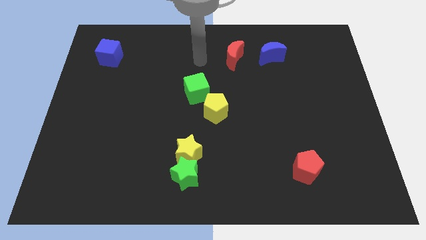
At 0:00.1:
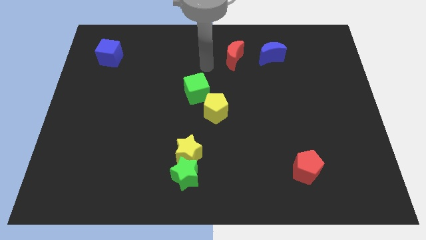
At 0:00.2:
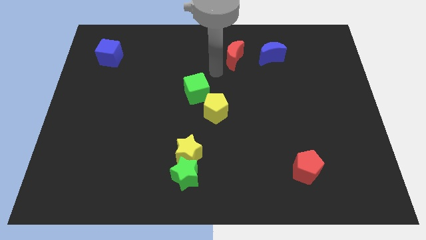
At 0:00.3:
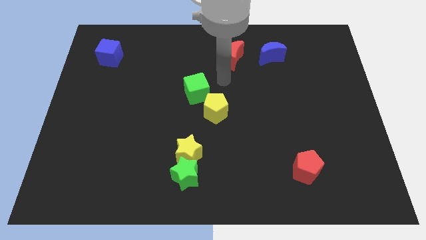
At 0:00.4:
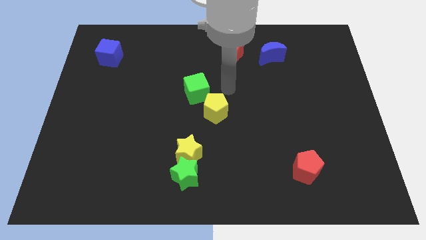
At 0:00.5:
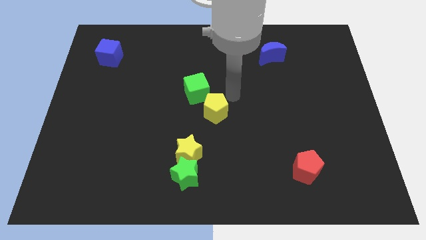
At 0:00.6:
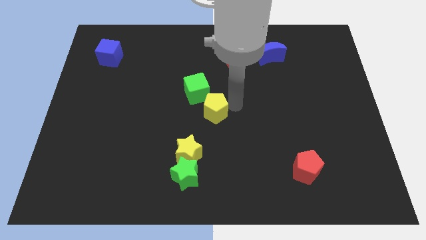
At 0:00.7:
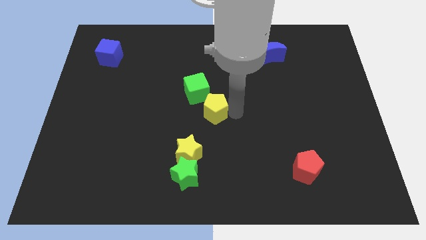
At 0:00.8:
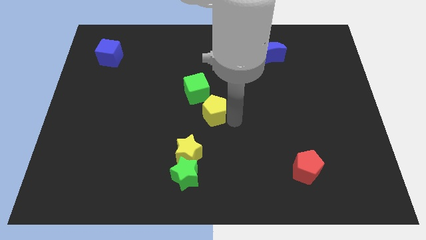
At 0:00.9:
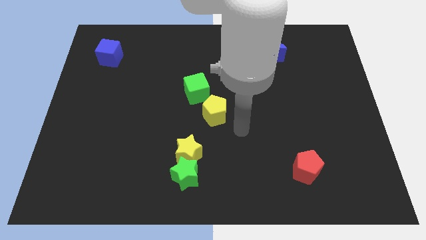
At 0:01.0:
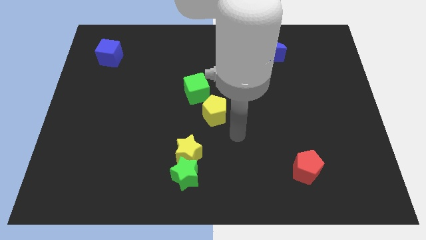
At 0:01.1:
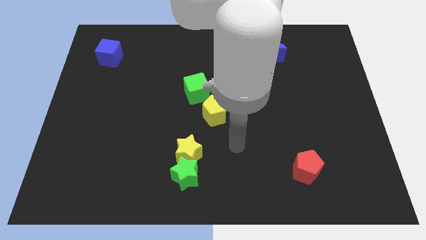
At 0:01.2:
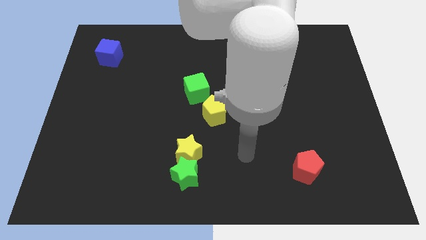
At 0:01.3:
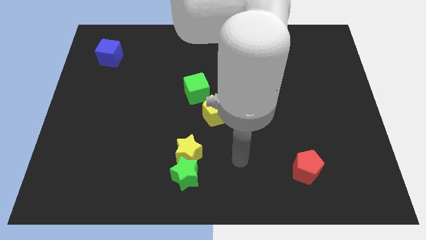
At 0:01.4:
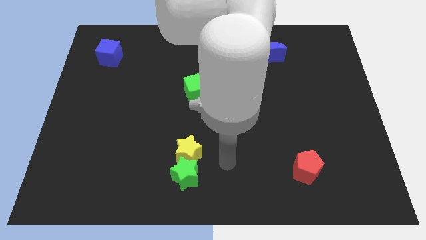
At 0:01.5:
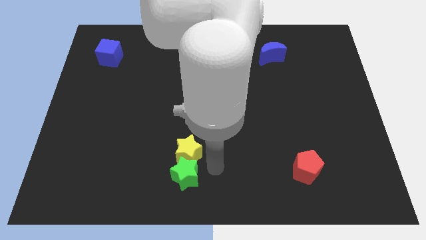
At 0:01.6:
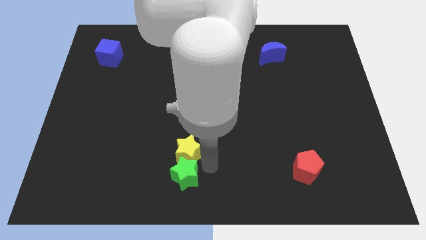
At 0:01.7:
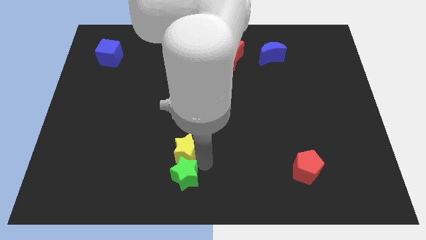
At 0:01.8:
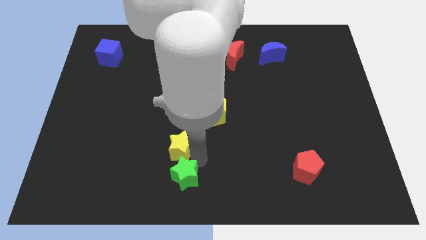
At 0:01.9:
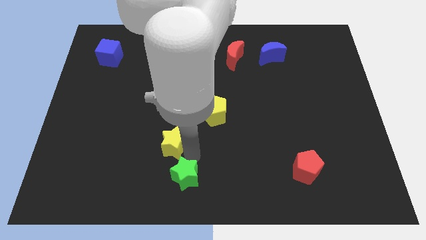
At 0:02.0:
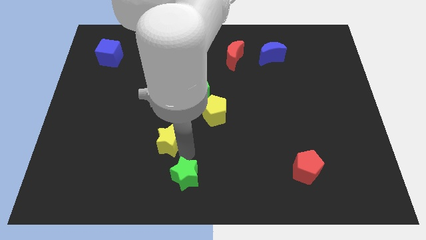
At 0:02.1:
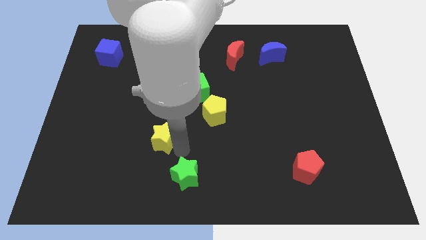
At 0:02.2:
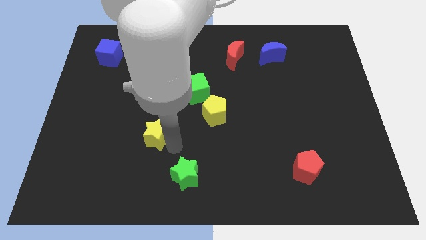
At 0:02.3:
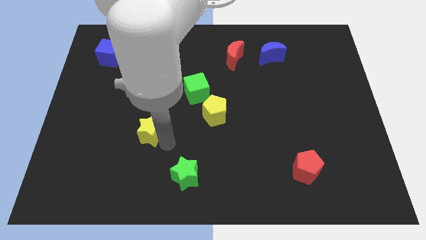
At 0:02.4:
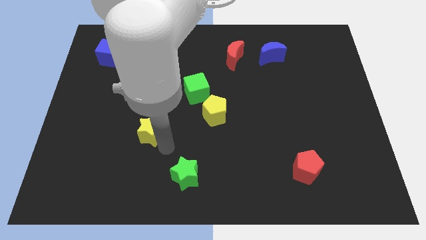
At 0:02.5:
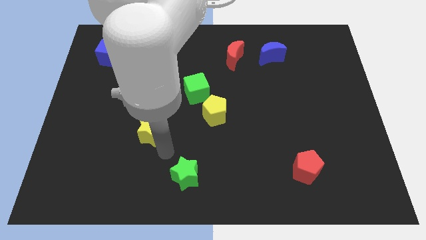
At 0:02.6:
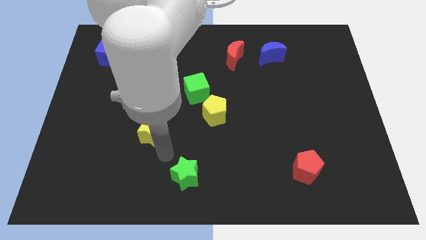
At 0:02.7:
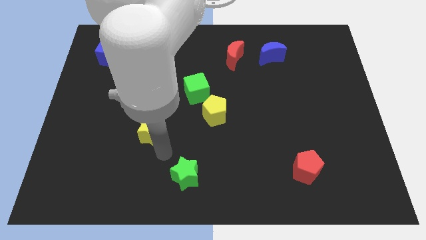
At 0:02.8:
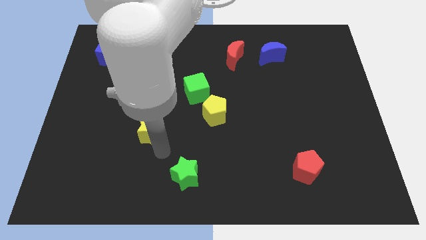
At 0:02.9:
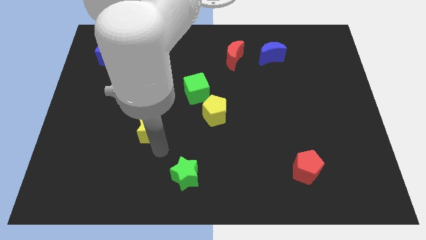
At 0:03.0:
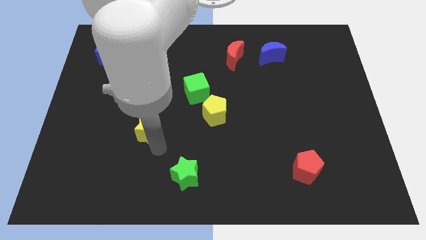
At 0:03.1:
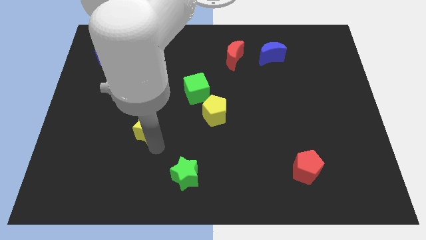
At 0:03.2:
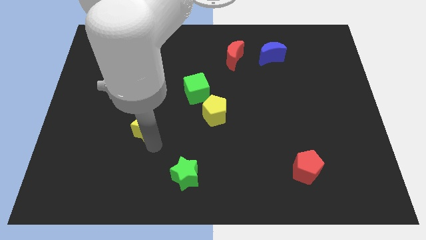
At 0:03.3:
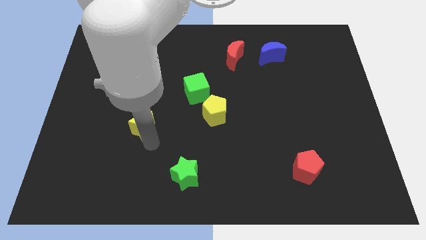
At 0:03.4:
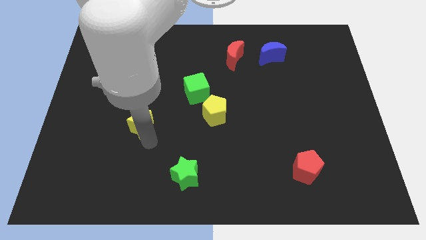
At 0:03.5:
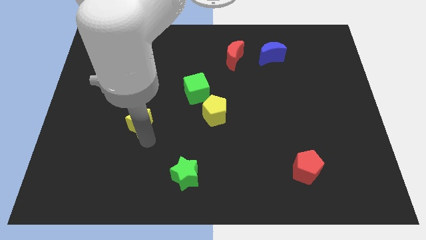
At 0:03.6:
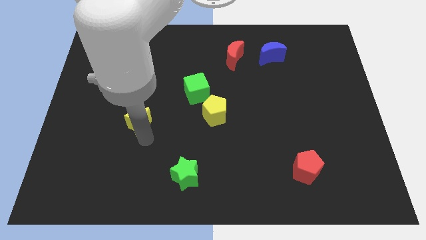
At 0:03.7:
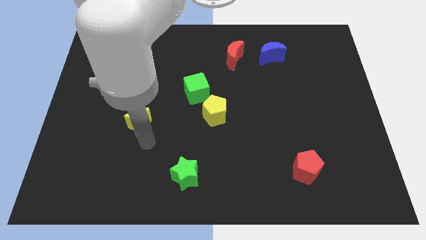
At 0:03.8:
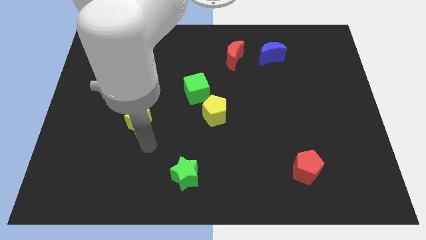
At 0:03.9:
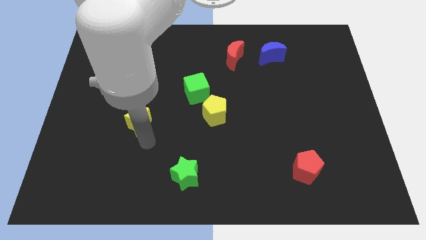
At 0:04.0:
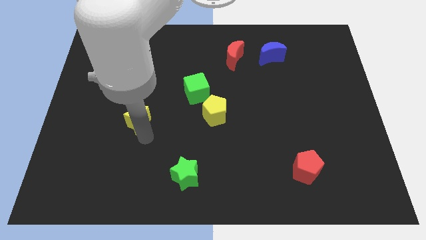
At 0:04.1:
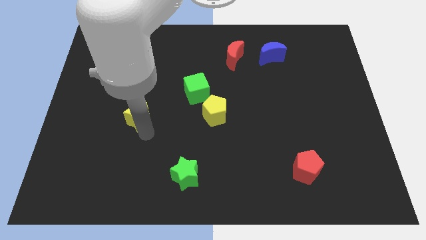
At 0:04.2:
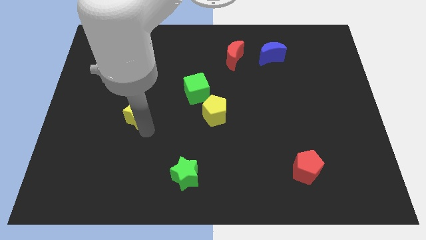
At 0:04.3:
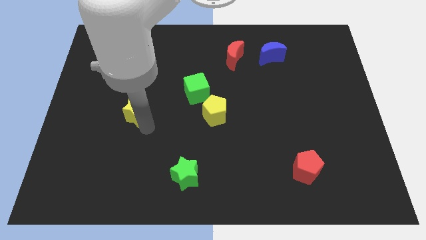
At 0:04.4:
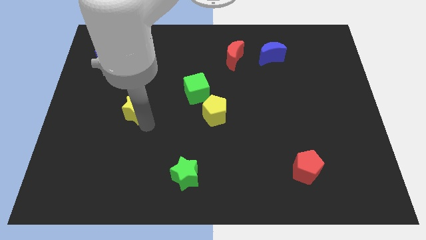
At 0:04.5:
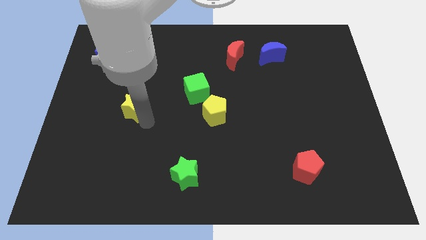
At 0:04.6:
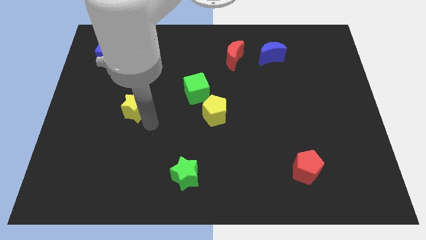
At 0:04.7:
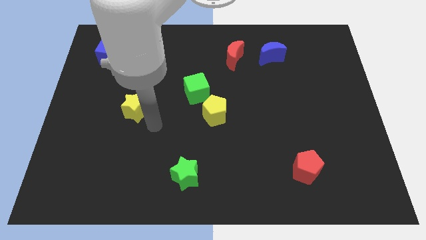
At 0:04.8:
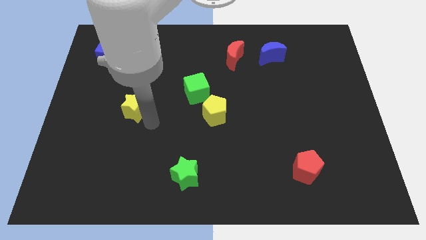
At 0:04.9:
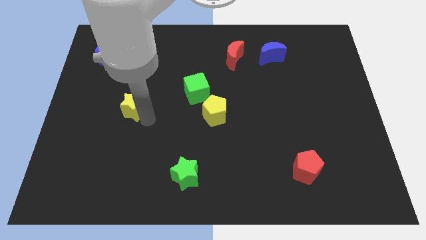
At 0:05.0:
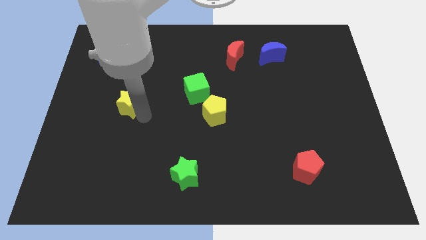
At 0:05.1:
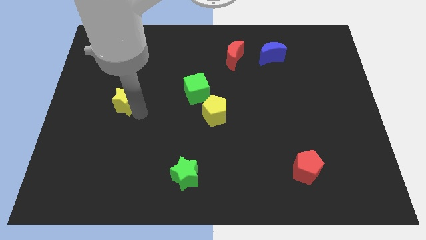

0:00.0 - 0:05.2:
push the yellow star upwards and left diagonally

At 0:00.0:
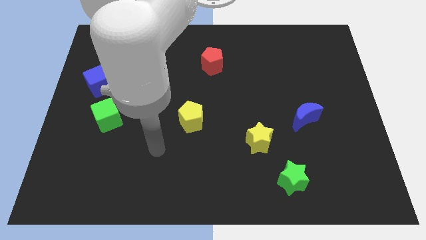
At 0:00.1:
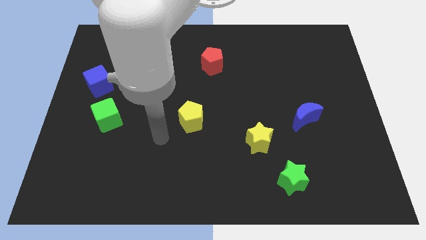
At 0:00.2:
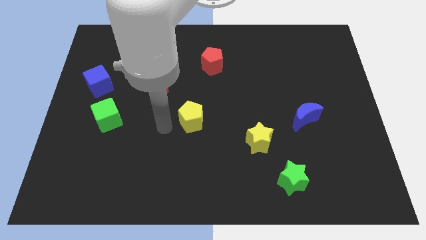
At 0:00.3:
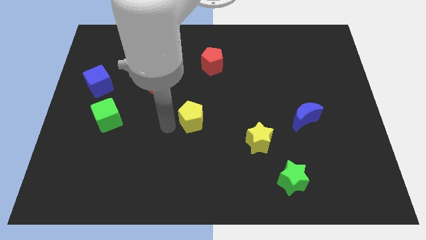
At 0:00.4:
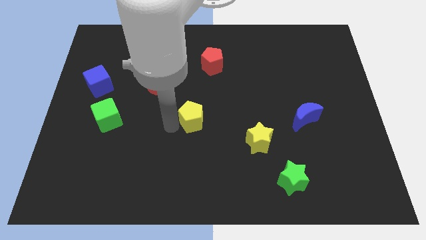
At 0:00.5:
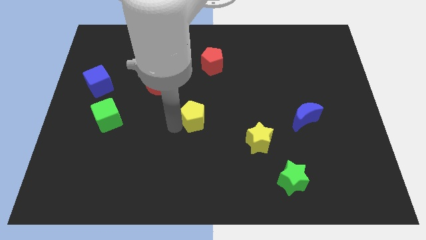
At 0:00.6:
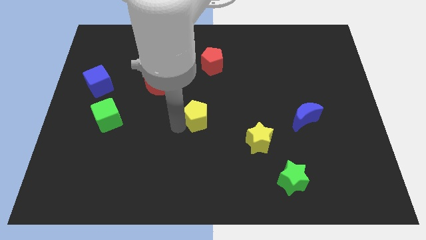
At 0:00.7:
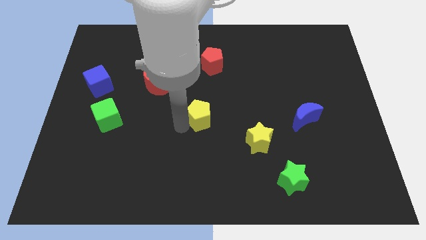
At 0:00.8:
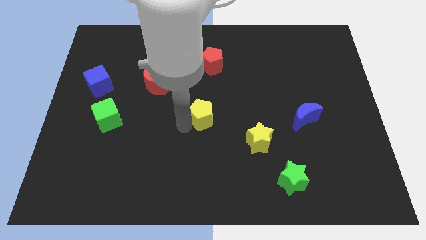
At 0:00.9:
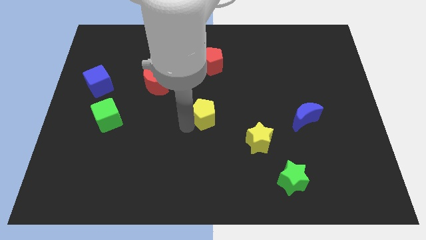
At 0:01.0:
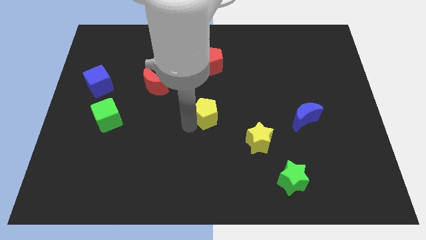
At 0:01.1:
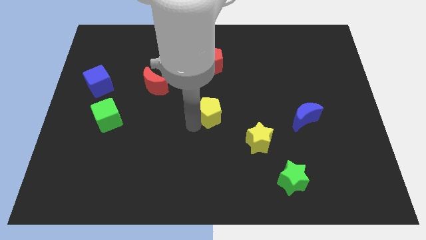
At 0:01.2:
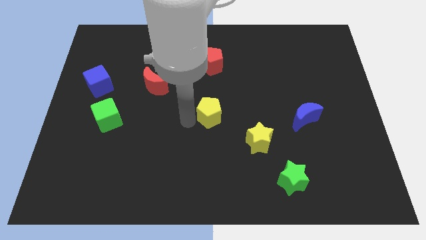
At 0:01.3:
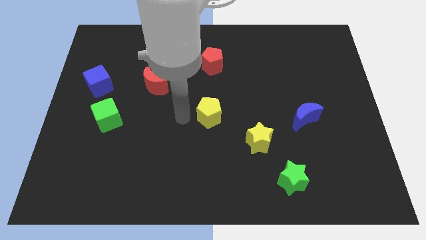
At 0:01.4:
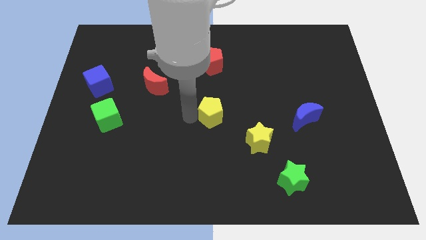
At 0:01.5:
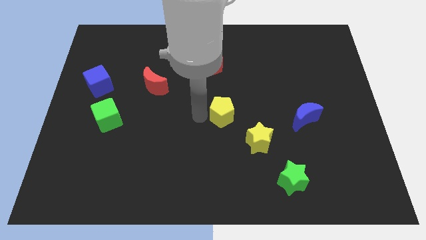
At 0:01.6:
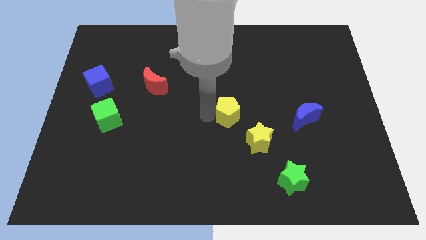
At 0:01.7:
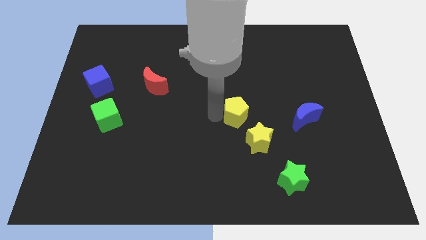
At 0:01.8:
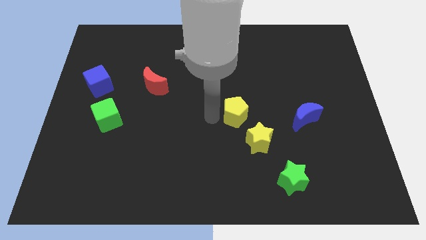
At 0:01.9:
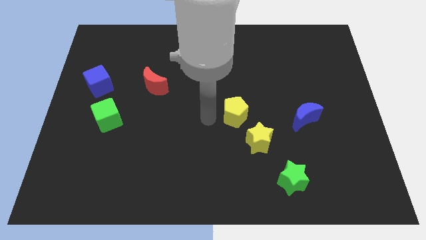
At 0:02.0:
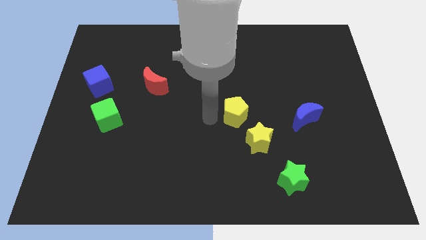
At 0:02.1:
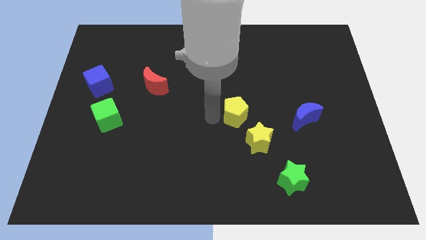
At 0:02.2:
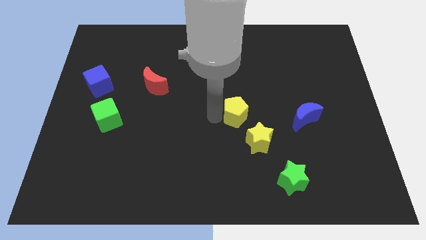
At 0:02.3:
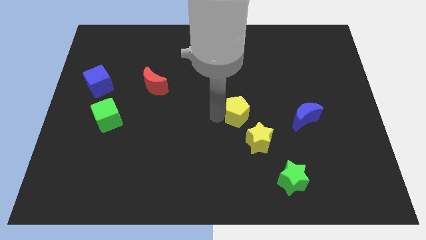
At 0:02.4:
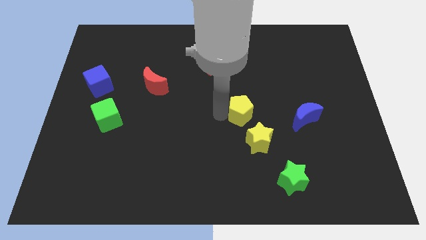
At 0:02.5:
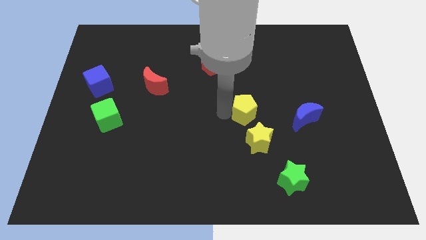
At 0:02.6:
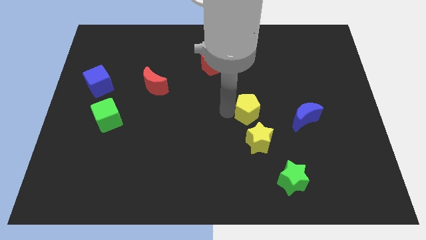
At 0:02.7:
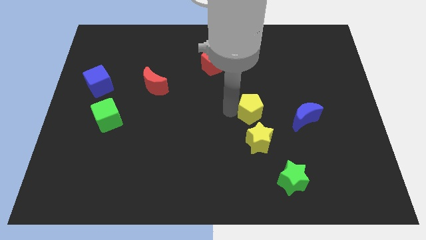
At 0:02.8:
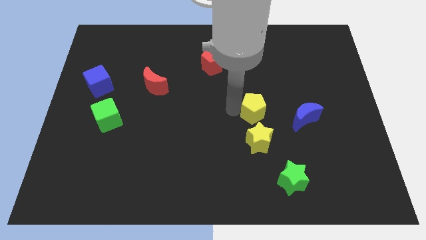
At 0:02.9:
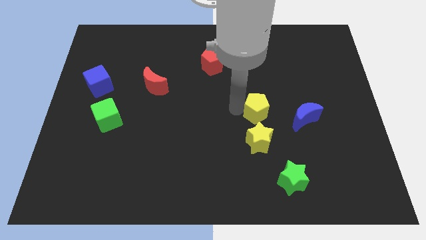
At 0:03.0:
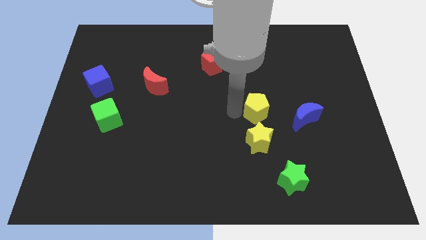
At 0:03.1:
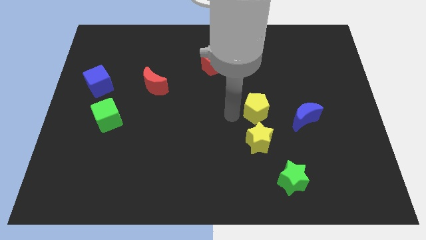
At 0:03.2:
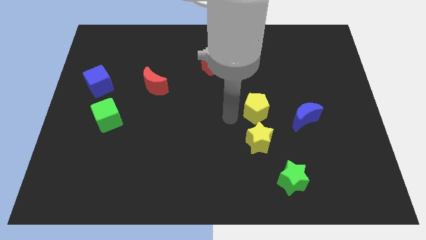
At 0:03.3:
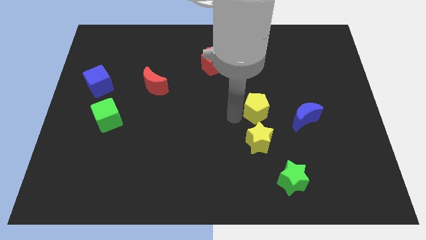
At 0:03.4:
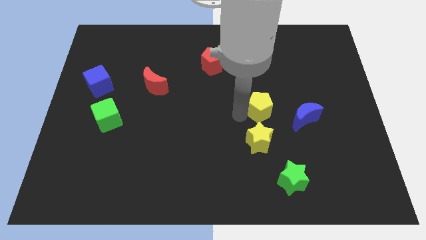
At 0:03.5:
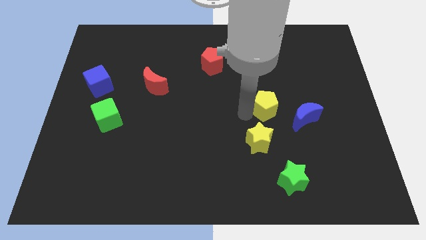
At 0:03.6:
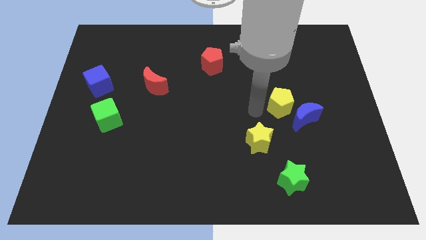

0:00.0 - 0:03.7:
slide the yellow pentagon right
